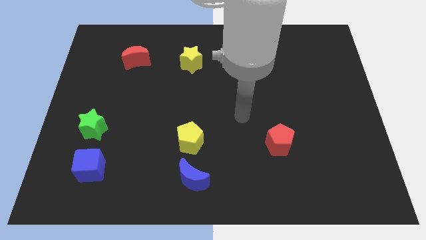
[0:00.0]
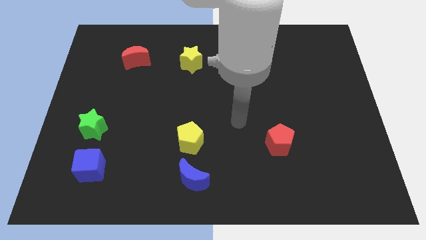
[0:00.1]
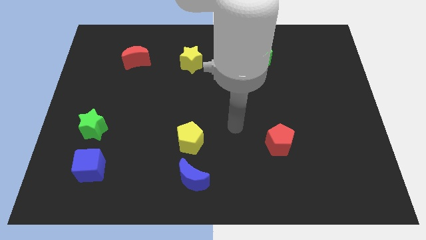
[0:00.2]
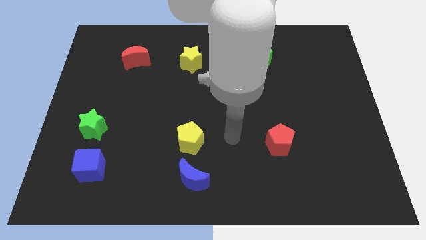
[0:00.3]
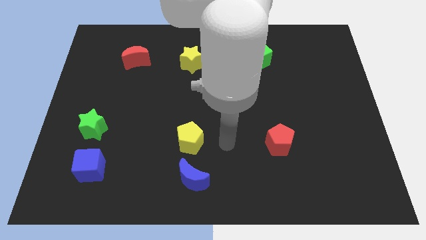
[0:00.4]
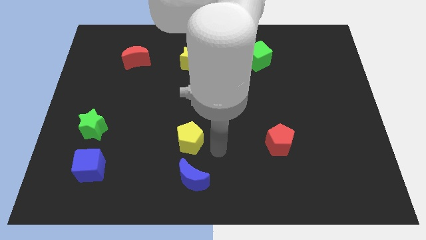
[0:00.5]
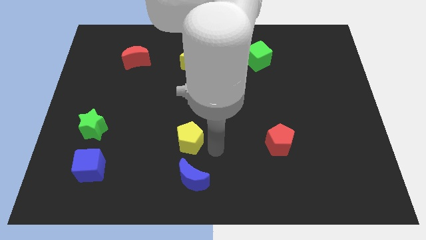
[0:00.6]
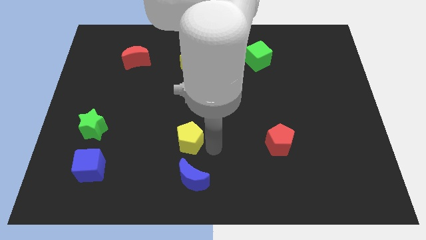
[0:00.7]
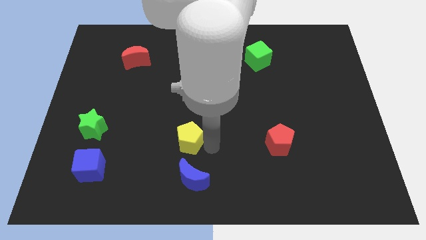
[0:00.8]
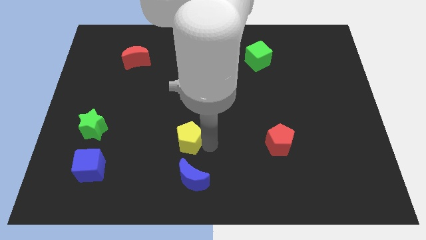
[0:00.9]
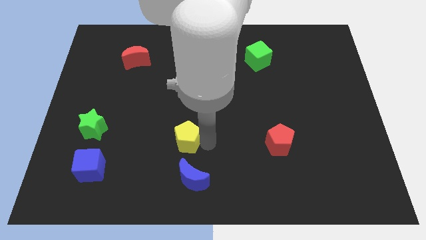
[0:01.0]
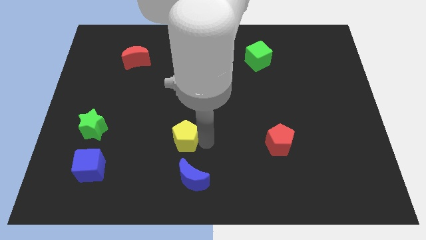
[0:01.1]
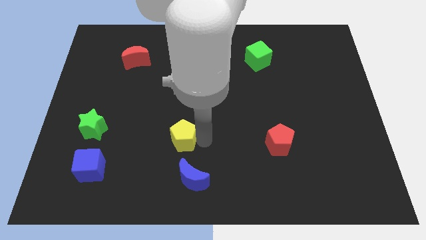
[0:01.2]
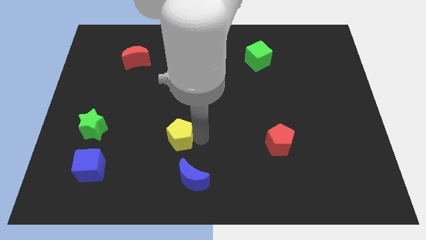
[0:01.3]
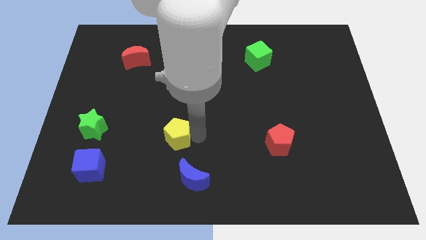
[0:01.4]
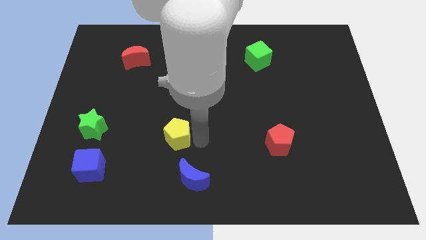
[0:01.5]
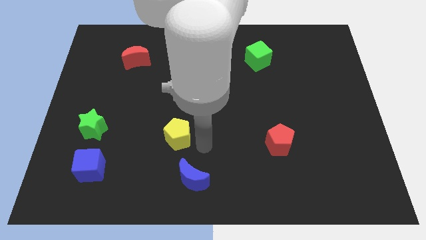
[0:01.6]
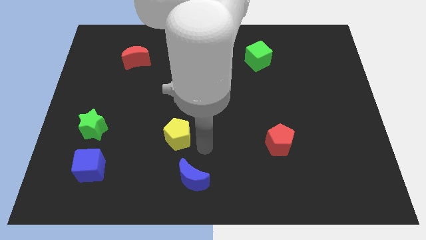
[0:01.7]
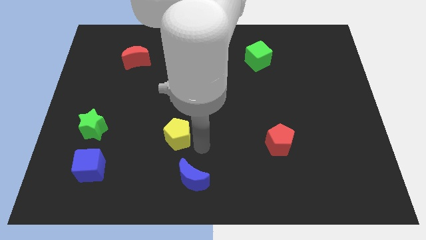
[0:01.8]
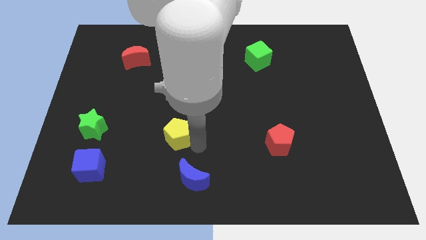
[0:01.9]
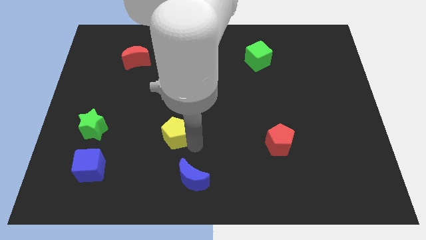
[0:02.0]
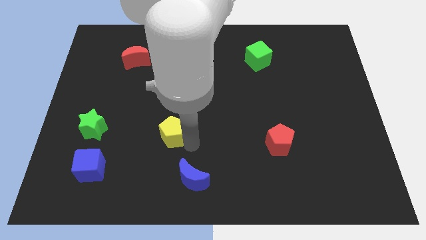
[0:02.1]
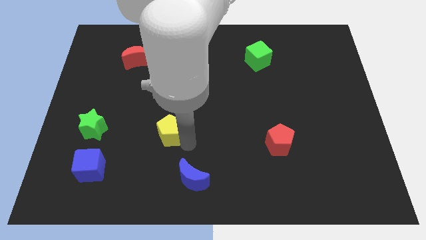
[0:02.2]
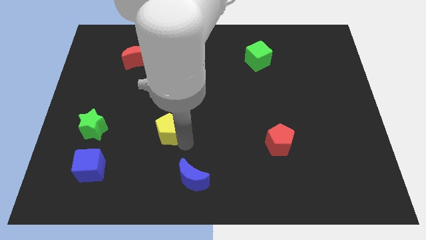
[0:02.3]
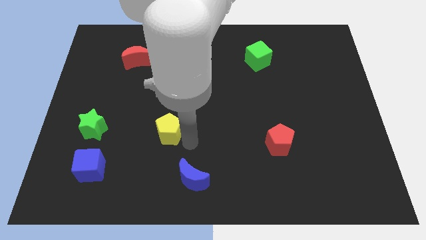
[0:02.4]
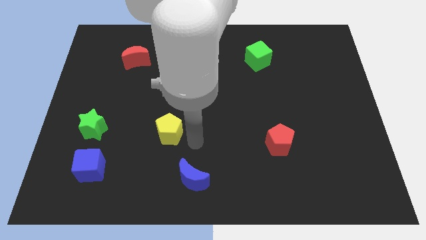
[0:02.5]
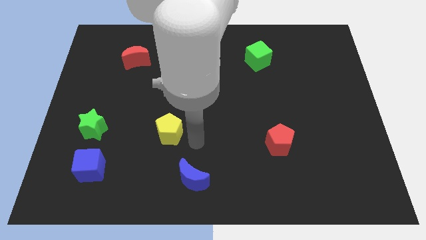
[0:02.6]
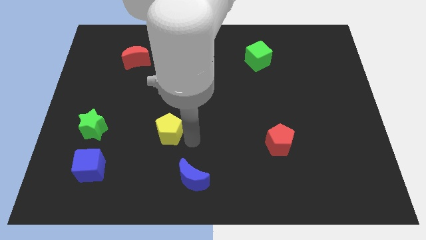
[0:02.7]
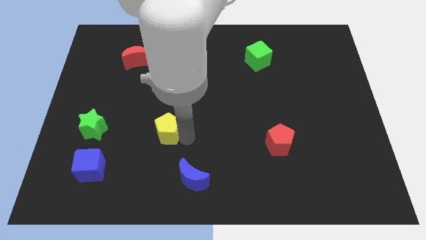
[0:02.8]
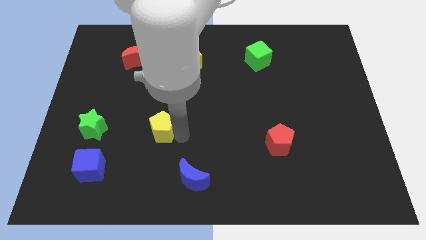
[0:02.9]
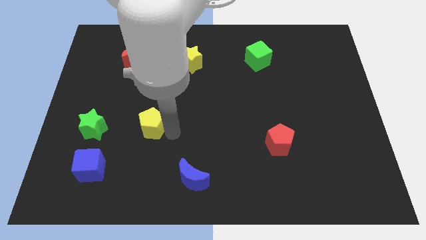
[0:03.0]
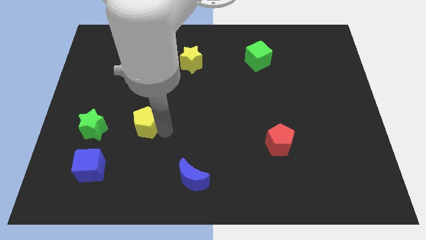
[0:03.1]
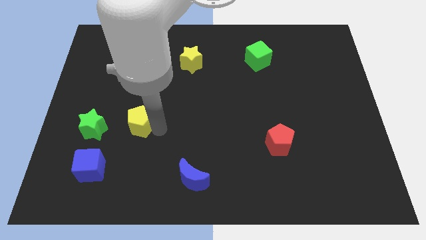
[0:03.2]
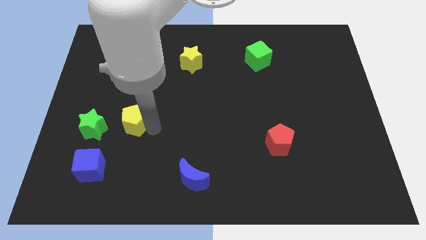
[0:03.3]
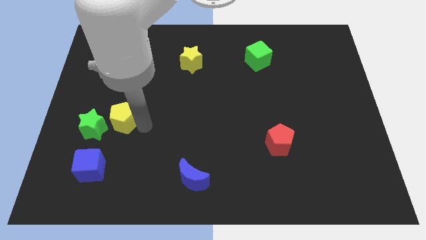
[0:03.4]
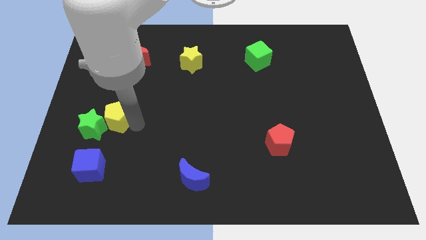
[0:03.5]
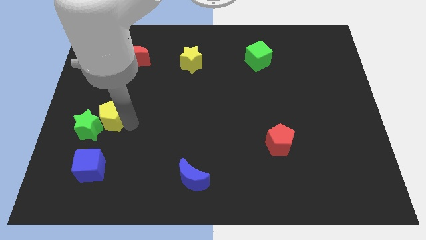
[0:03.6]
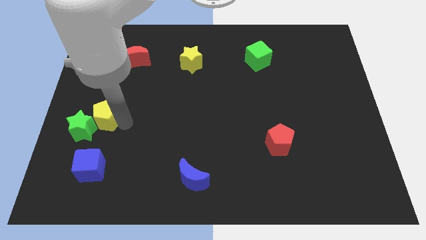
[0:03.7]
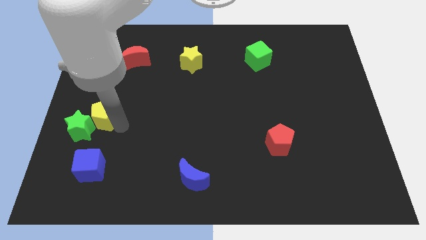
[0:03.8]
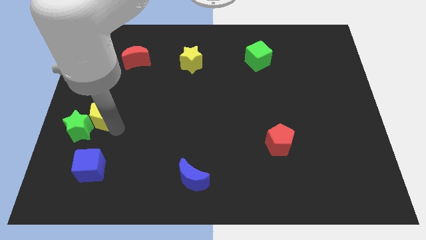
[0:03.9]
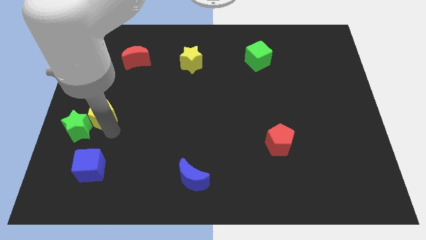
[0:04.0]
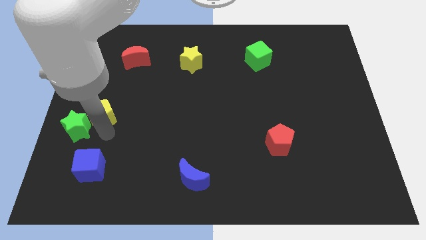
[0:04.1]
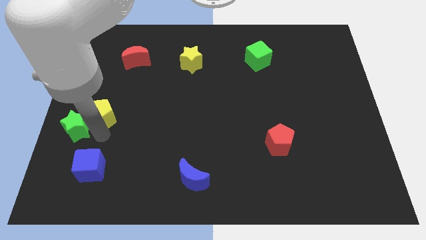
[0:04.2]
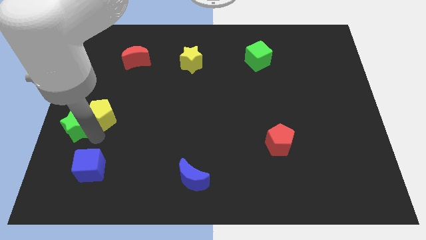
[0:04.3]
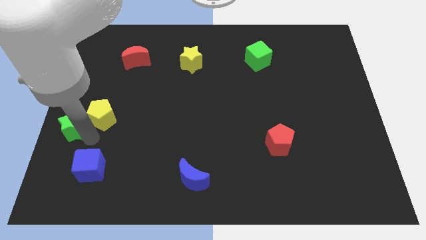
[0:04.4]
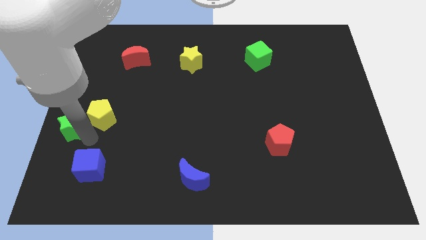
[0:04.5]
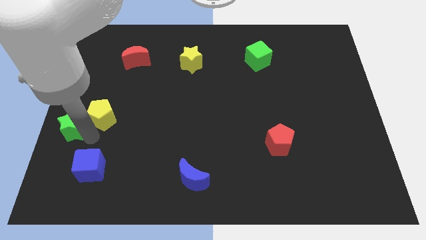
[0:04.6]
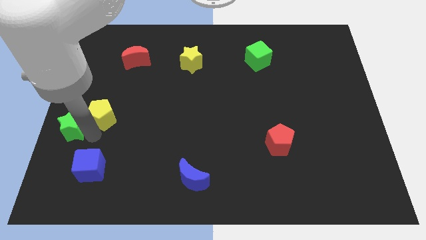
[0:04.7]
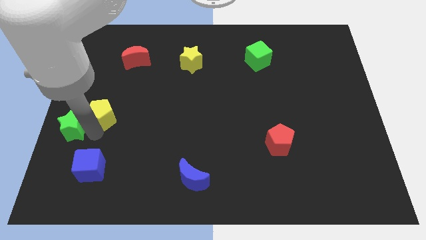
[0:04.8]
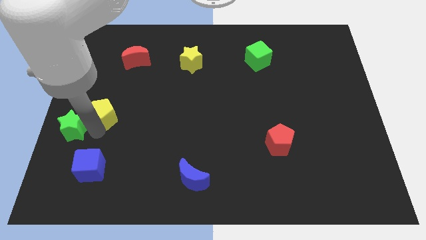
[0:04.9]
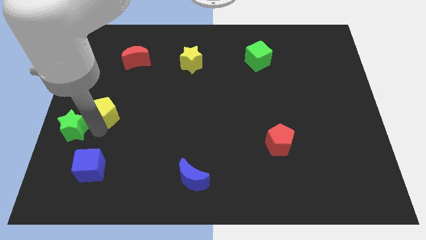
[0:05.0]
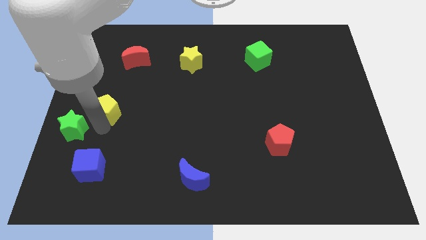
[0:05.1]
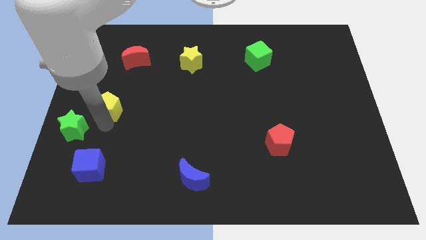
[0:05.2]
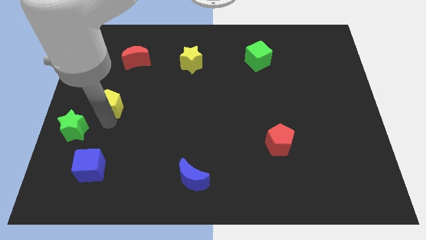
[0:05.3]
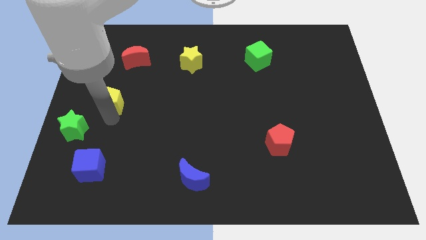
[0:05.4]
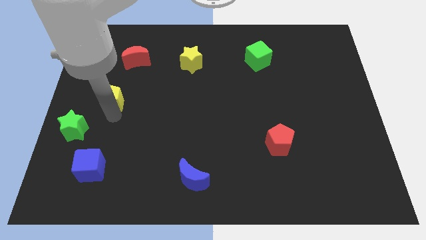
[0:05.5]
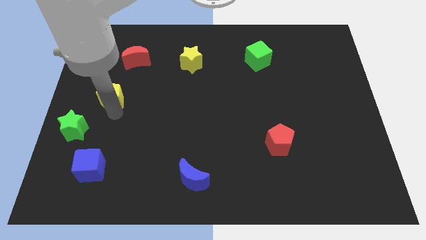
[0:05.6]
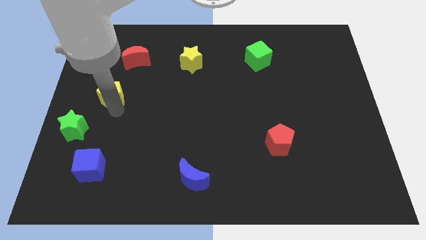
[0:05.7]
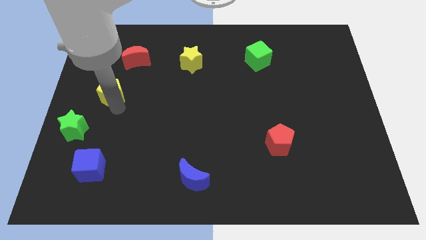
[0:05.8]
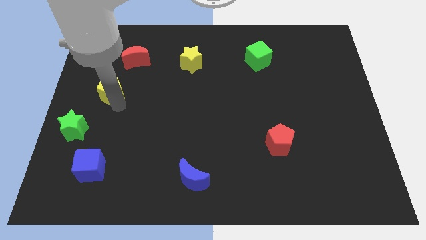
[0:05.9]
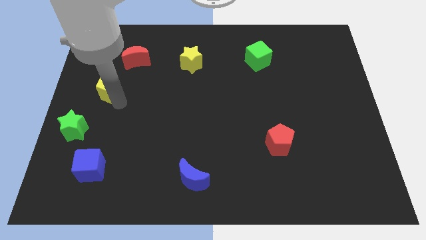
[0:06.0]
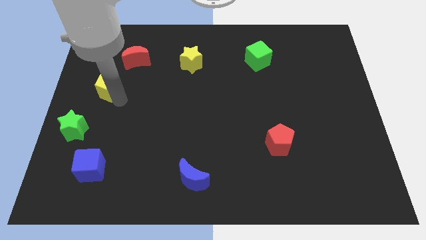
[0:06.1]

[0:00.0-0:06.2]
push the yellow pentagon to the left side
